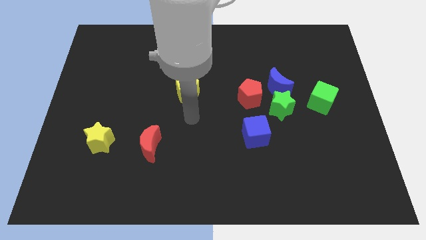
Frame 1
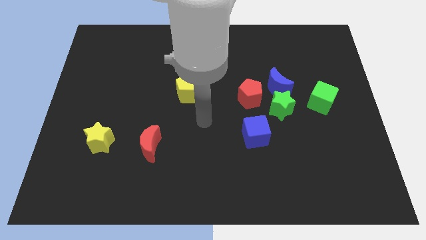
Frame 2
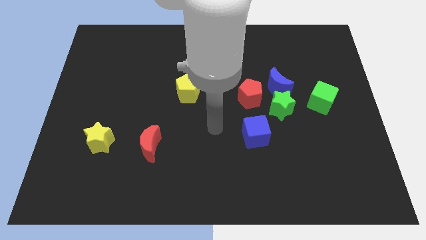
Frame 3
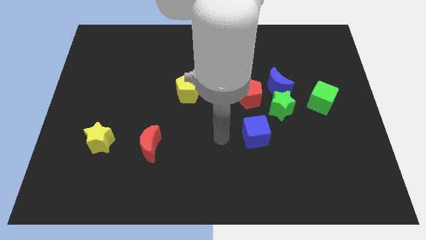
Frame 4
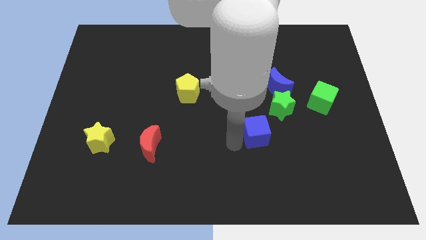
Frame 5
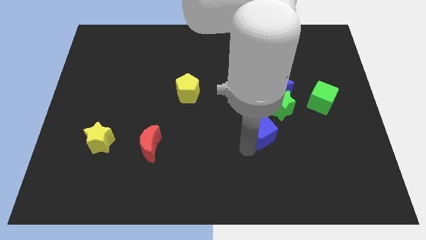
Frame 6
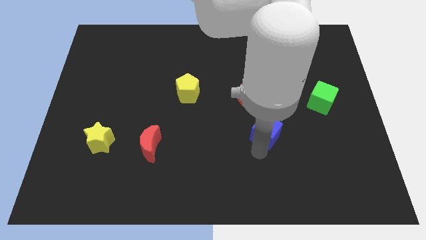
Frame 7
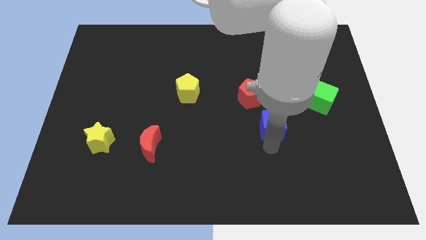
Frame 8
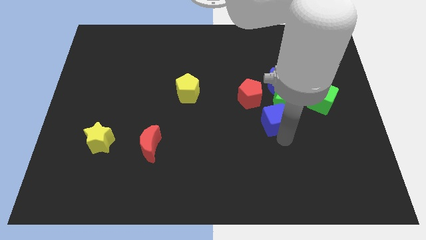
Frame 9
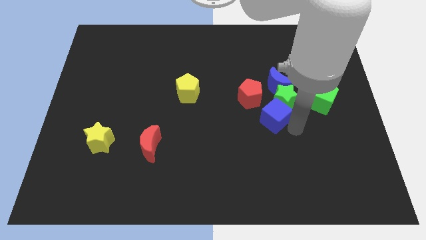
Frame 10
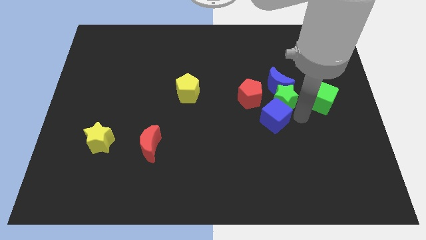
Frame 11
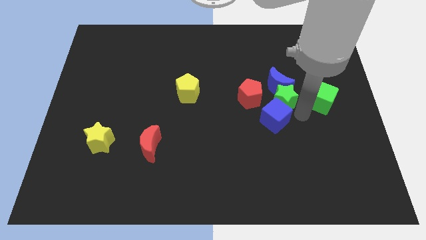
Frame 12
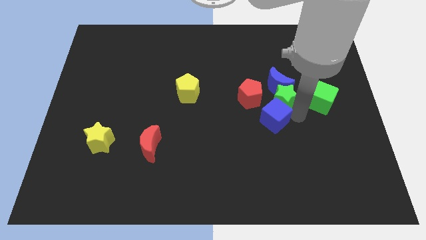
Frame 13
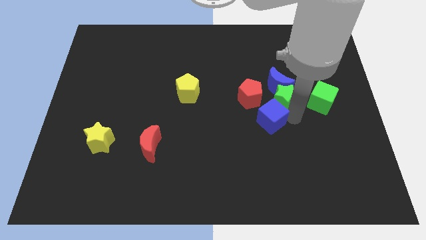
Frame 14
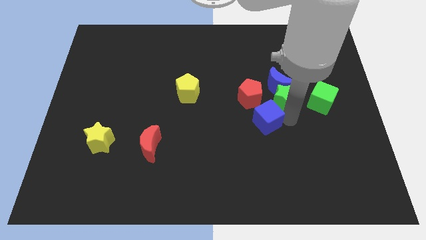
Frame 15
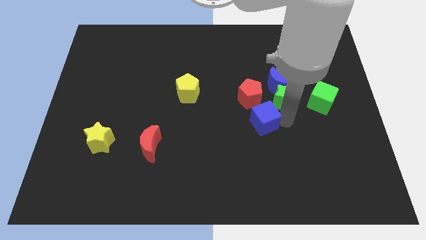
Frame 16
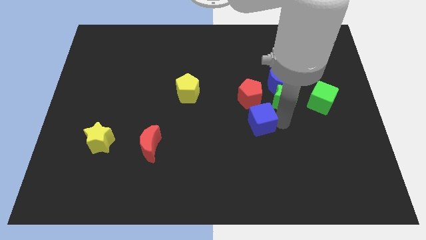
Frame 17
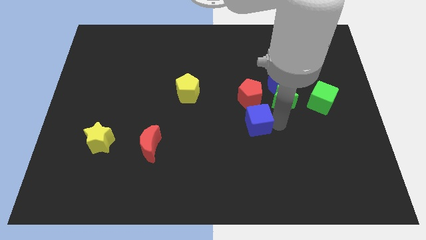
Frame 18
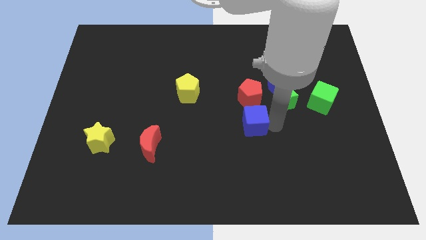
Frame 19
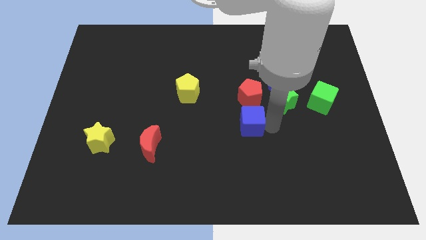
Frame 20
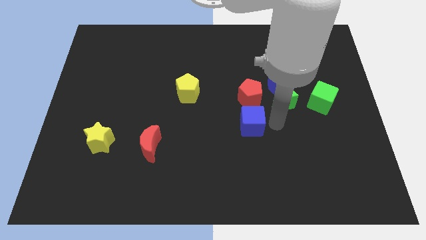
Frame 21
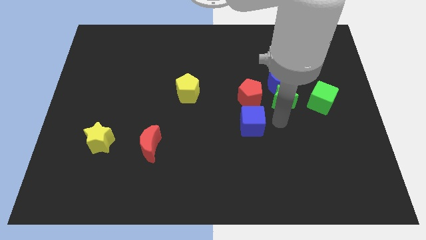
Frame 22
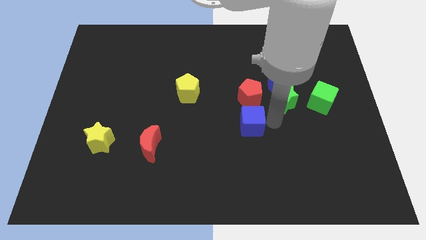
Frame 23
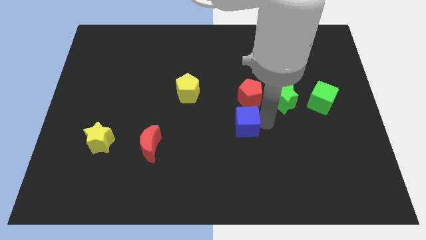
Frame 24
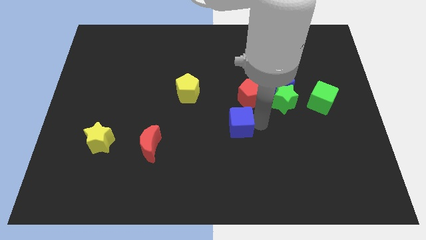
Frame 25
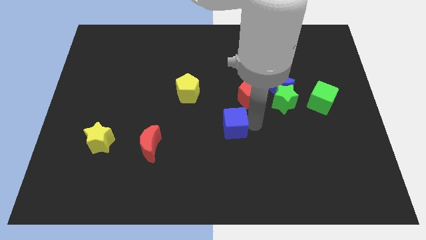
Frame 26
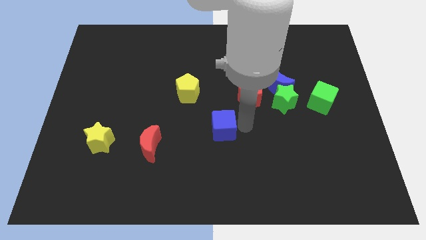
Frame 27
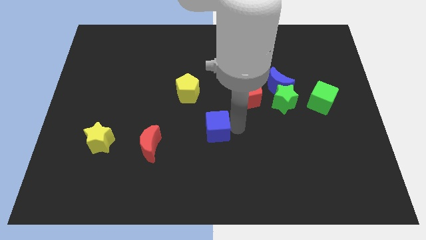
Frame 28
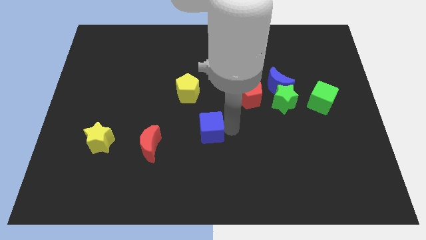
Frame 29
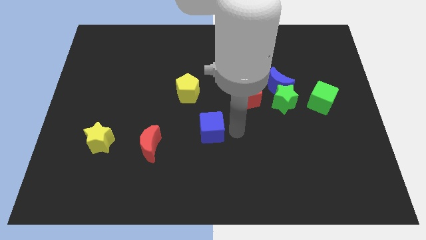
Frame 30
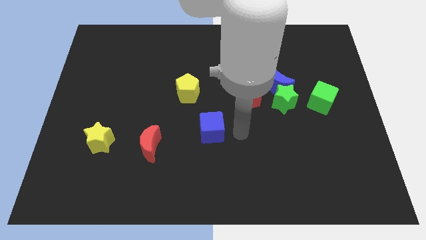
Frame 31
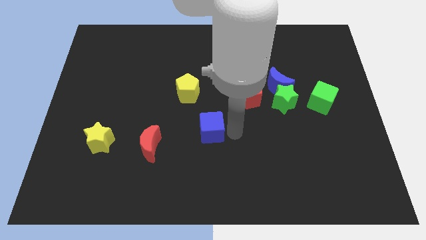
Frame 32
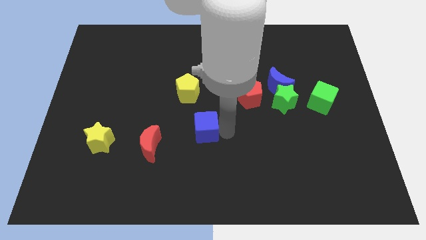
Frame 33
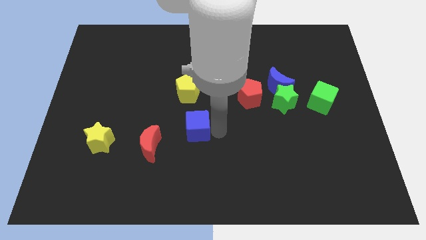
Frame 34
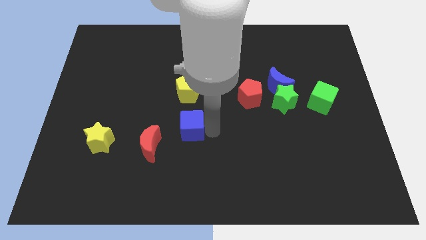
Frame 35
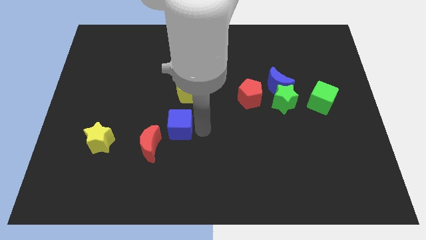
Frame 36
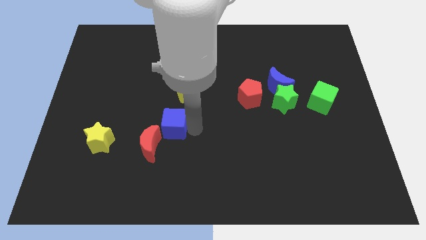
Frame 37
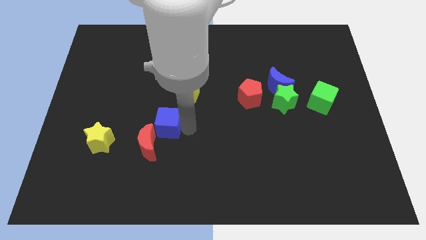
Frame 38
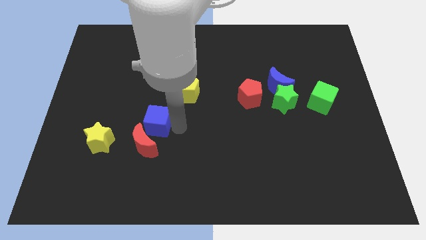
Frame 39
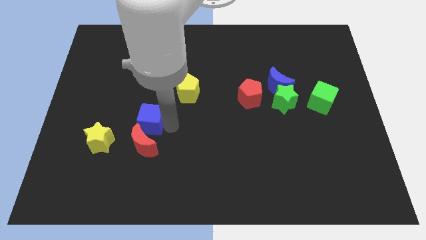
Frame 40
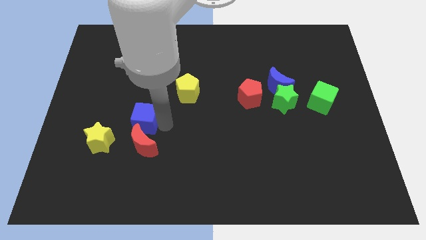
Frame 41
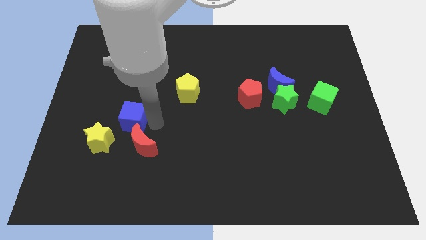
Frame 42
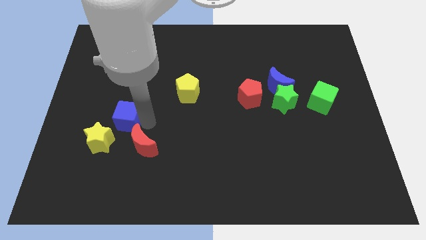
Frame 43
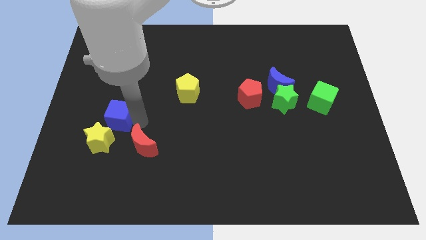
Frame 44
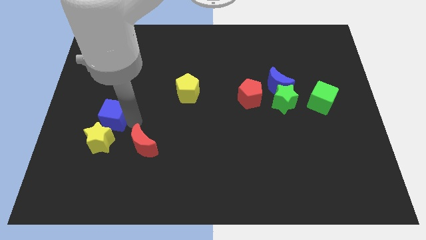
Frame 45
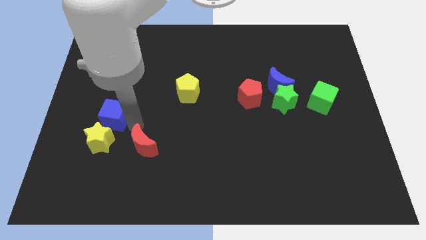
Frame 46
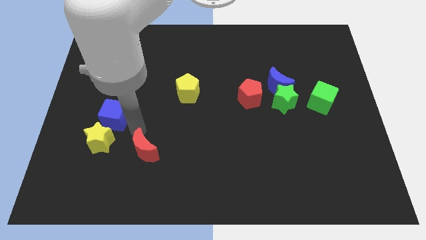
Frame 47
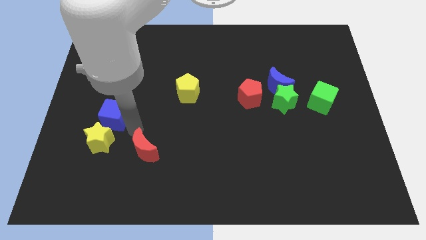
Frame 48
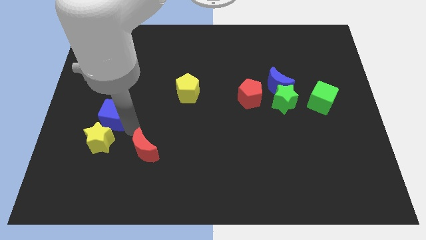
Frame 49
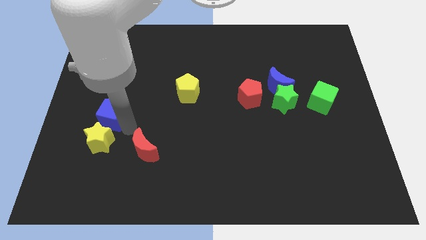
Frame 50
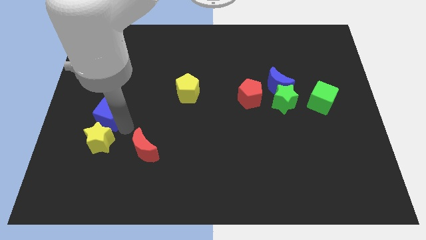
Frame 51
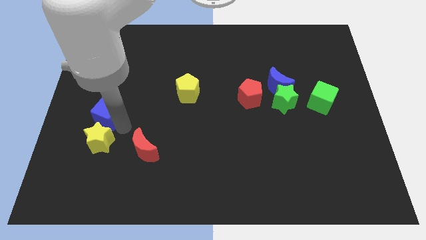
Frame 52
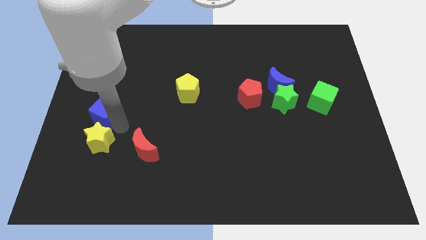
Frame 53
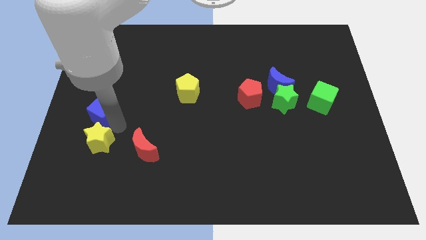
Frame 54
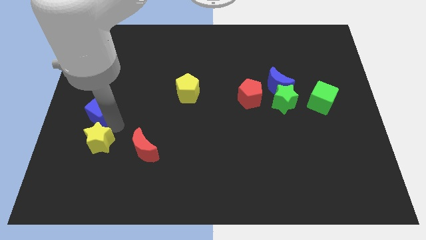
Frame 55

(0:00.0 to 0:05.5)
move the blue cube to the left side

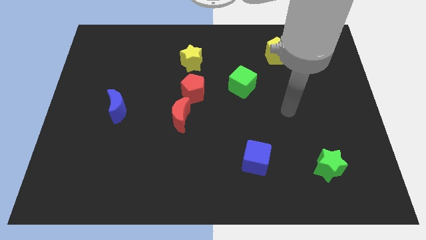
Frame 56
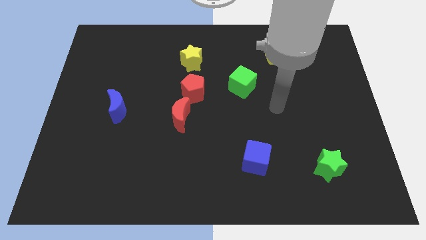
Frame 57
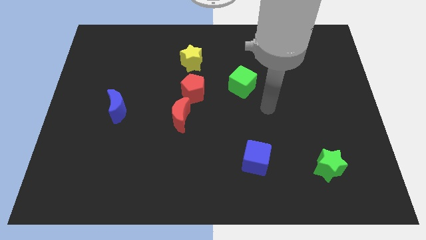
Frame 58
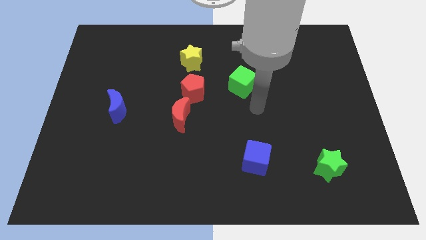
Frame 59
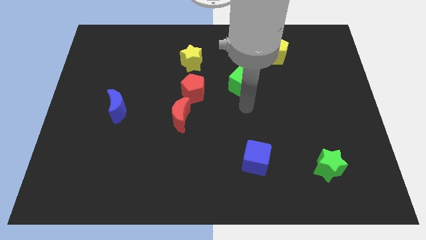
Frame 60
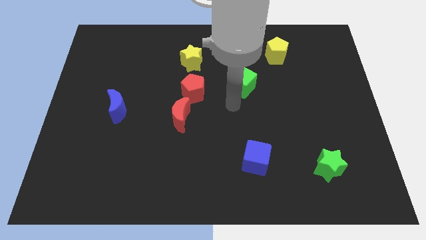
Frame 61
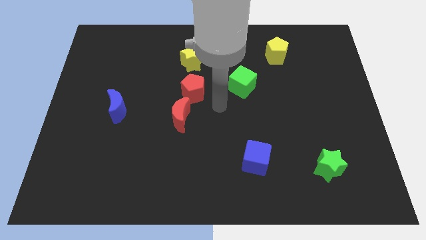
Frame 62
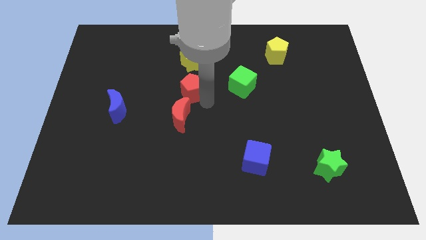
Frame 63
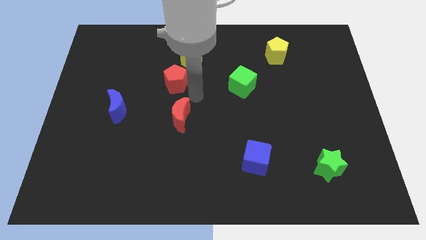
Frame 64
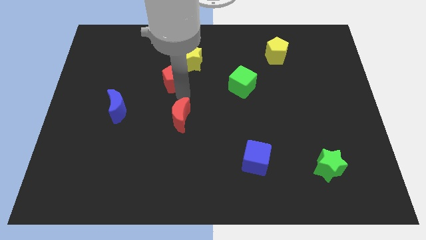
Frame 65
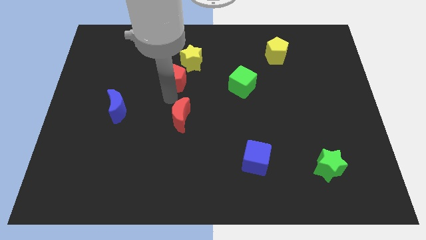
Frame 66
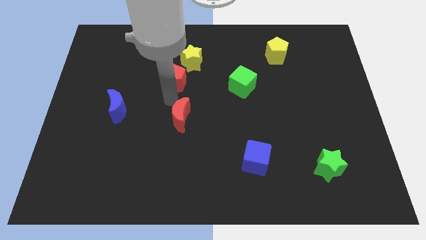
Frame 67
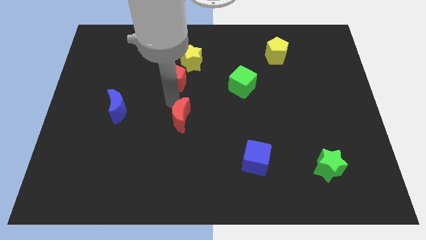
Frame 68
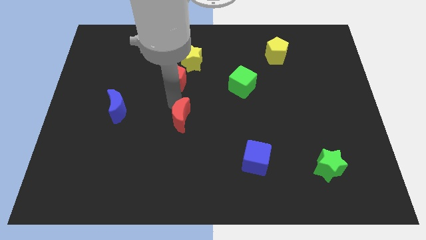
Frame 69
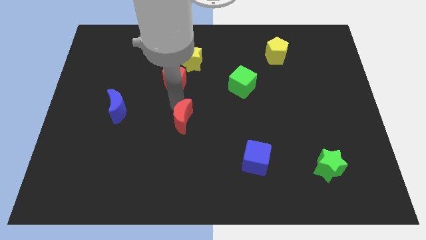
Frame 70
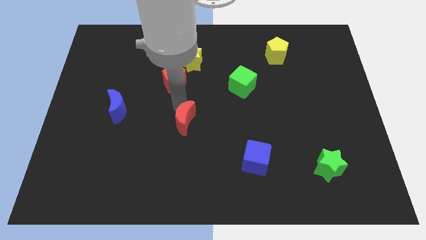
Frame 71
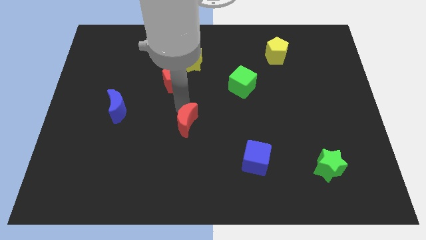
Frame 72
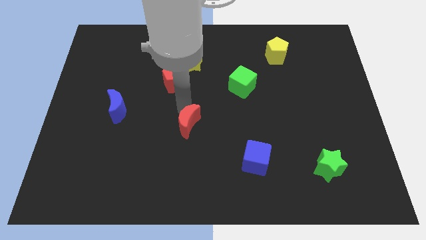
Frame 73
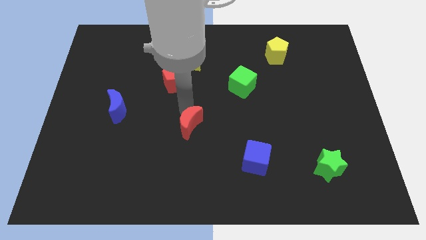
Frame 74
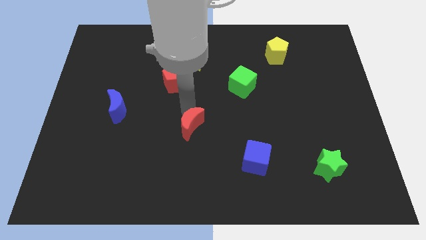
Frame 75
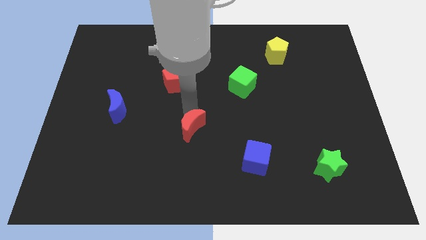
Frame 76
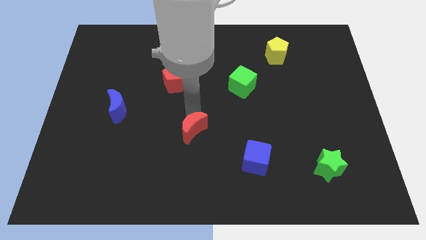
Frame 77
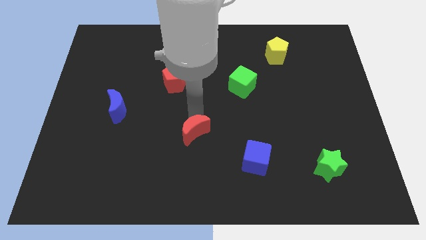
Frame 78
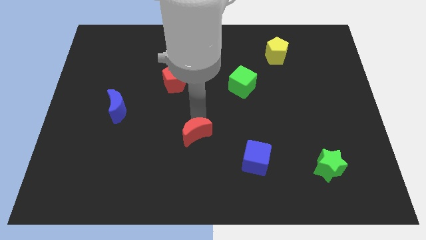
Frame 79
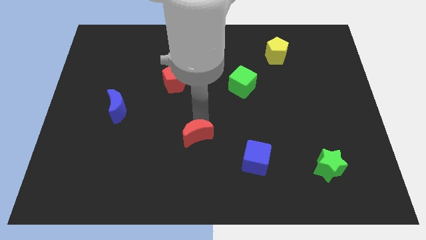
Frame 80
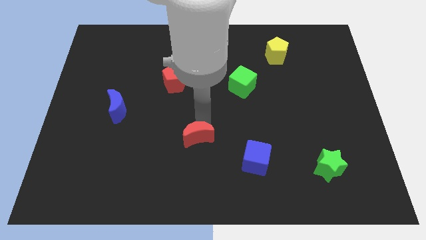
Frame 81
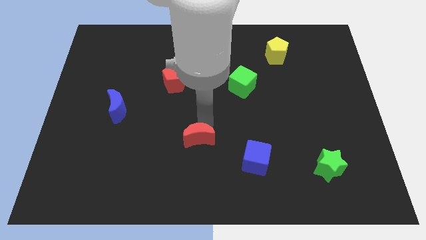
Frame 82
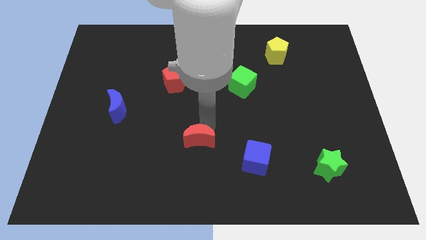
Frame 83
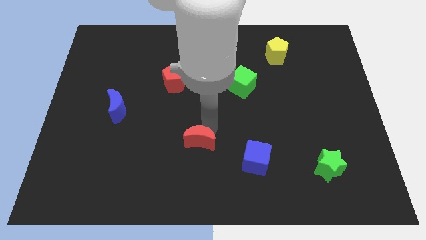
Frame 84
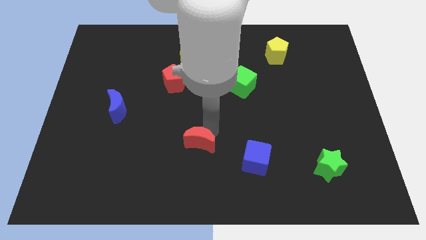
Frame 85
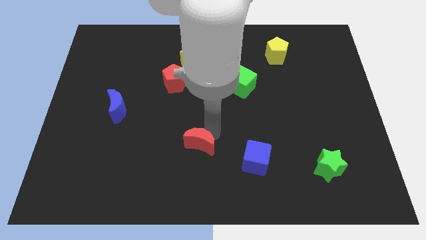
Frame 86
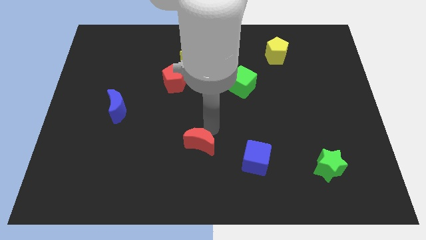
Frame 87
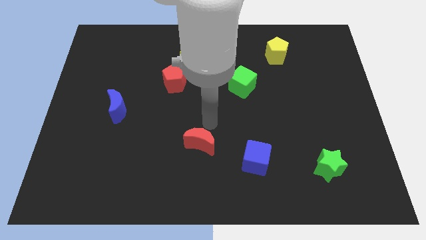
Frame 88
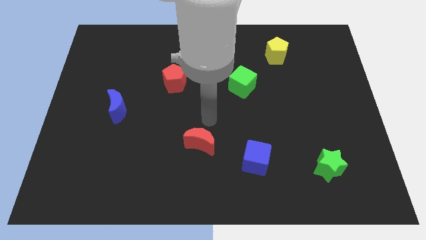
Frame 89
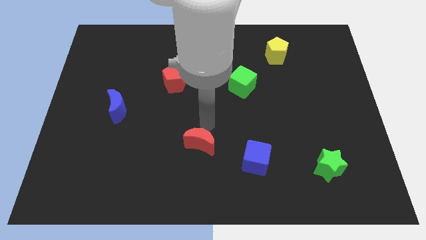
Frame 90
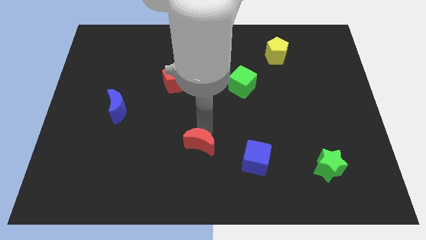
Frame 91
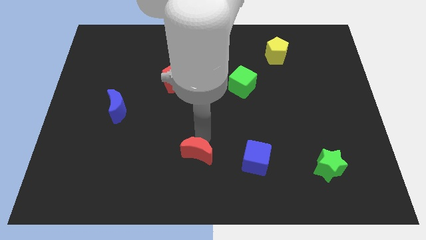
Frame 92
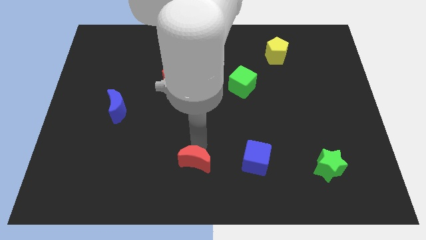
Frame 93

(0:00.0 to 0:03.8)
move the red moon to the bottom
